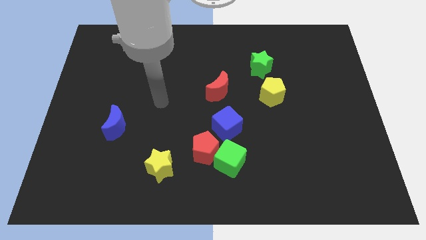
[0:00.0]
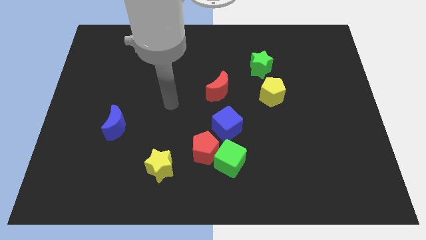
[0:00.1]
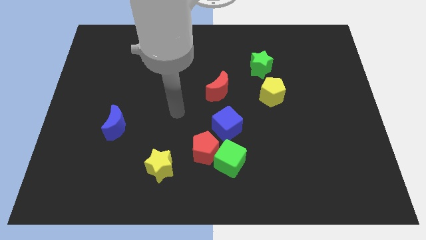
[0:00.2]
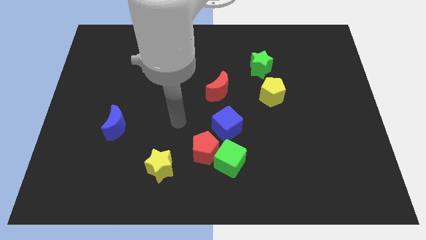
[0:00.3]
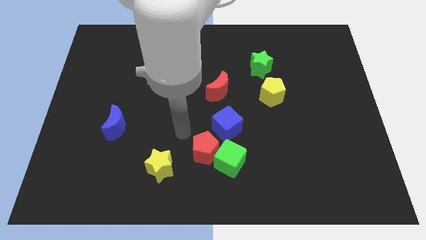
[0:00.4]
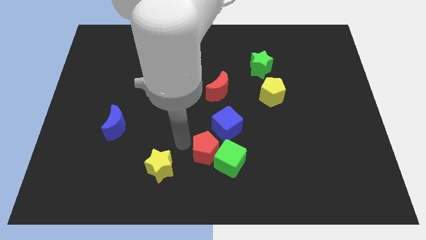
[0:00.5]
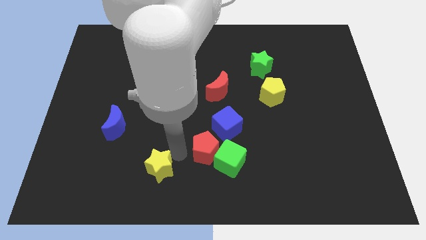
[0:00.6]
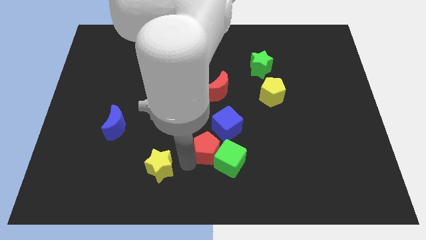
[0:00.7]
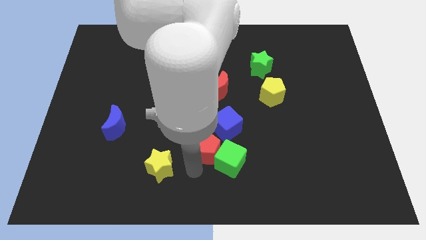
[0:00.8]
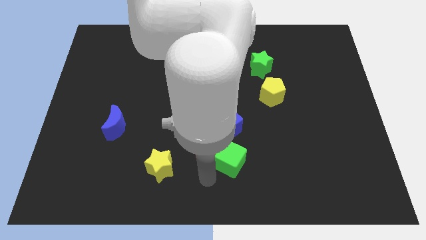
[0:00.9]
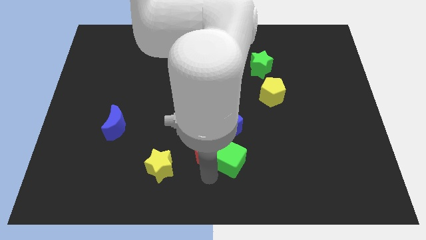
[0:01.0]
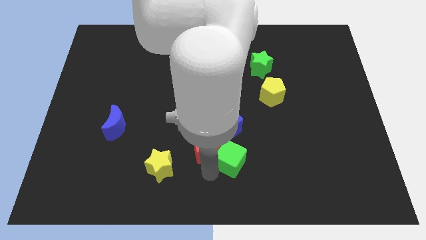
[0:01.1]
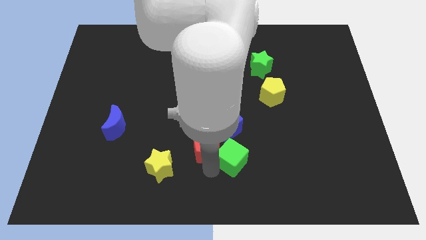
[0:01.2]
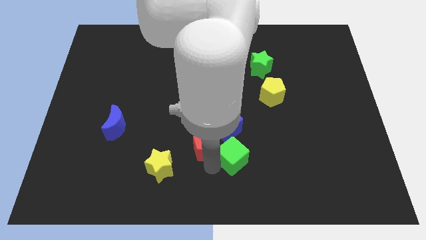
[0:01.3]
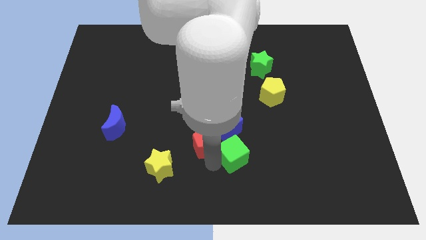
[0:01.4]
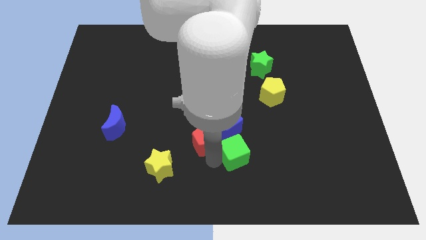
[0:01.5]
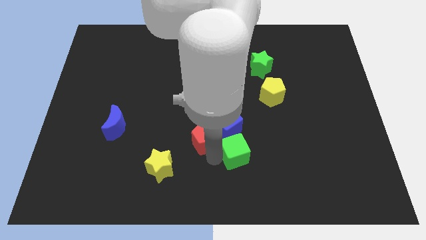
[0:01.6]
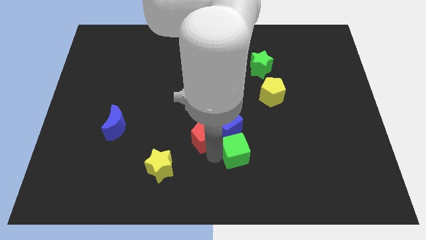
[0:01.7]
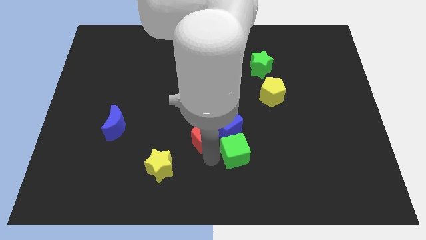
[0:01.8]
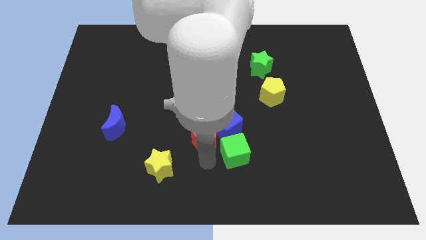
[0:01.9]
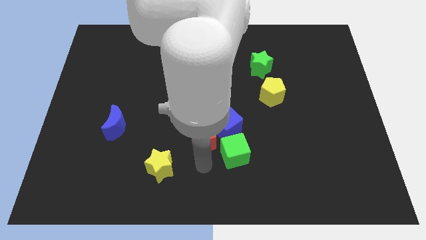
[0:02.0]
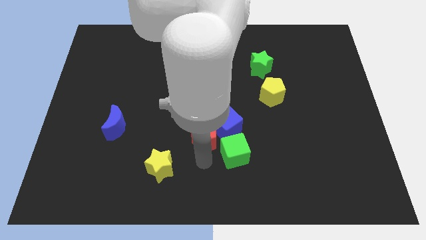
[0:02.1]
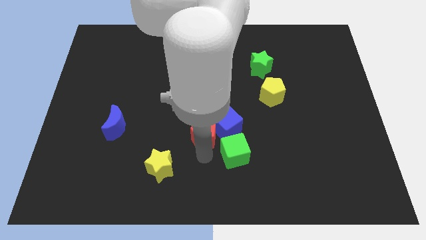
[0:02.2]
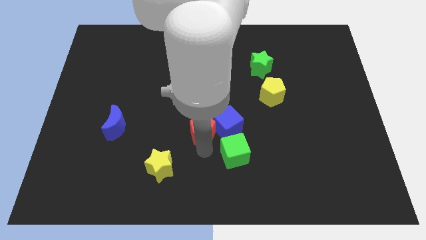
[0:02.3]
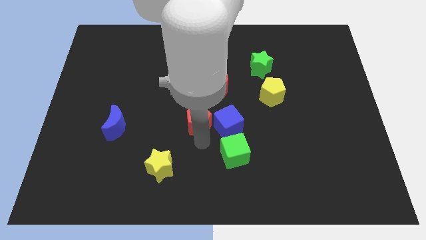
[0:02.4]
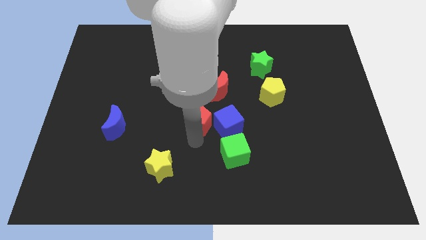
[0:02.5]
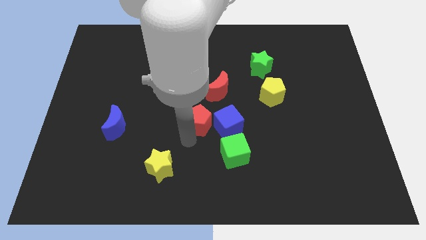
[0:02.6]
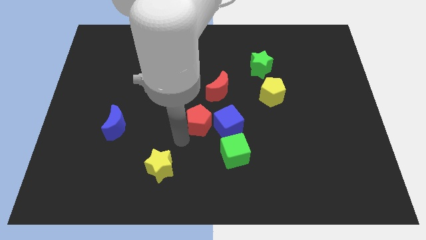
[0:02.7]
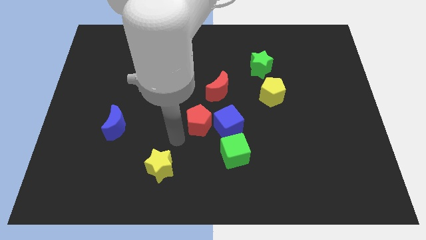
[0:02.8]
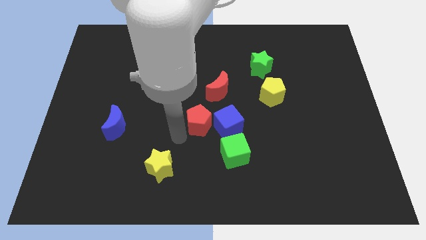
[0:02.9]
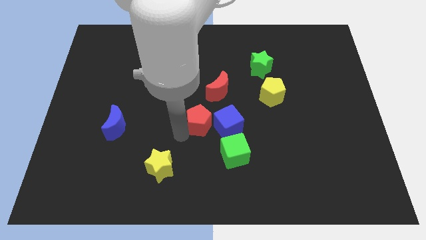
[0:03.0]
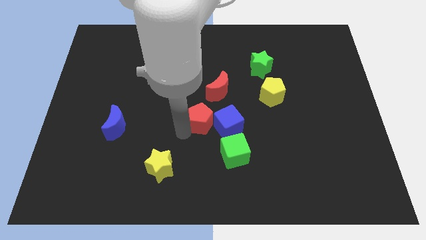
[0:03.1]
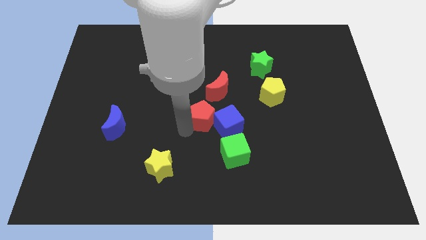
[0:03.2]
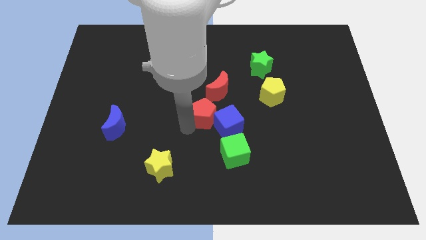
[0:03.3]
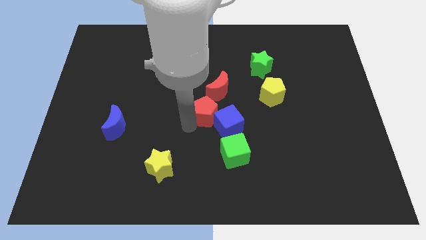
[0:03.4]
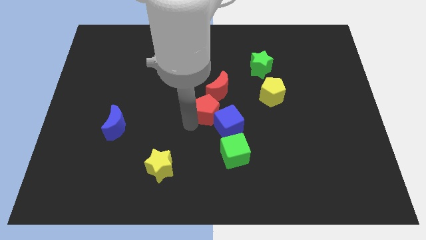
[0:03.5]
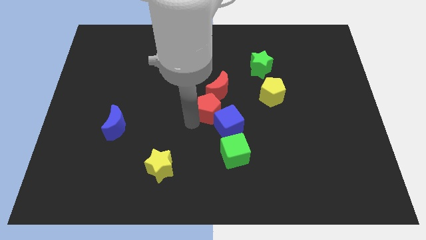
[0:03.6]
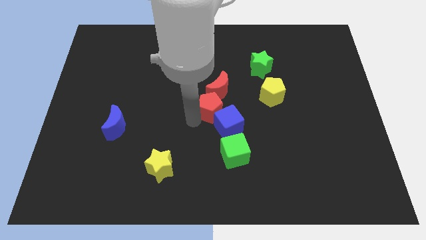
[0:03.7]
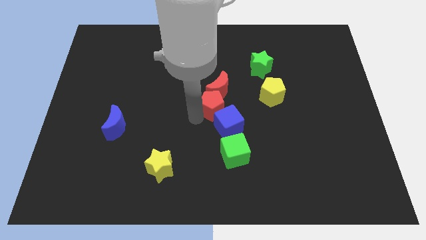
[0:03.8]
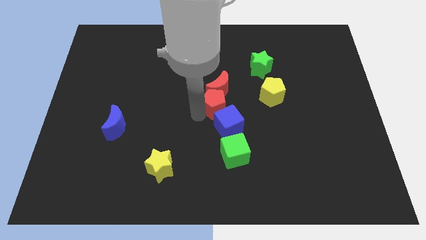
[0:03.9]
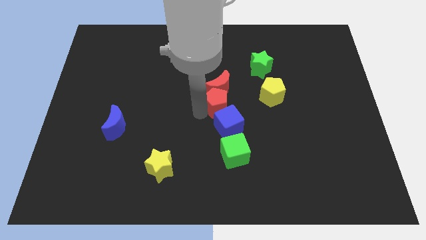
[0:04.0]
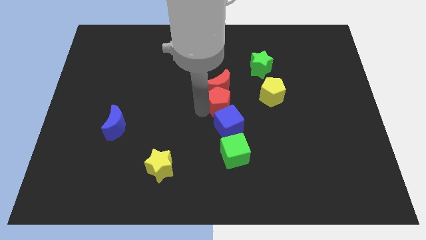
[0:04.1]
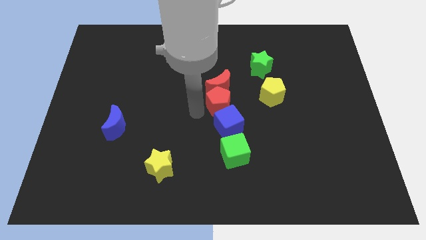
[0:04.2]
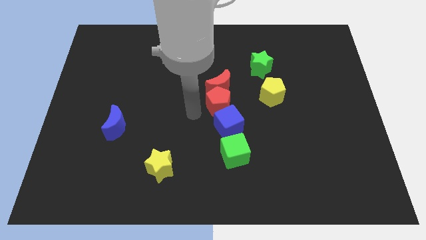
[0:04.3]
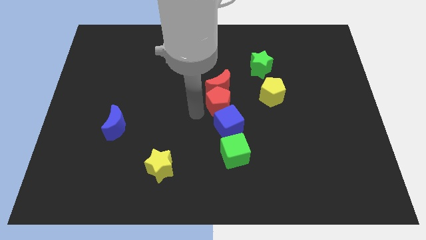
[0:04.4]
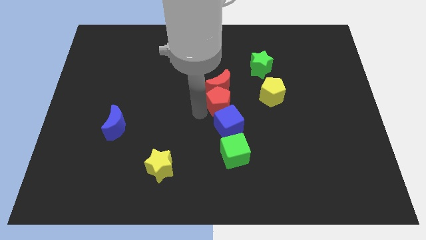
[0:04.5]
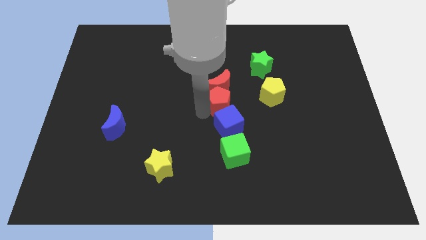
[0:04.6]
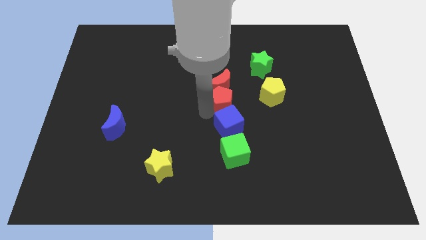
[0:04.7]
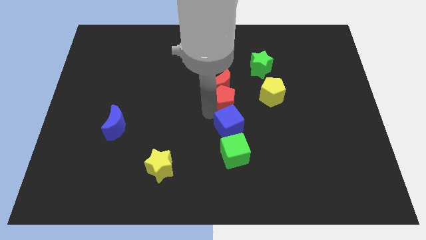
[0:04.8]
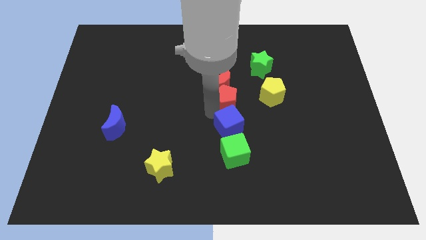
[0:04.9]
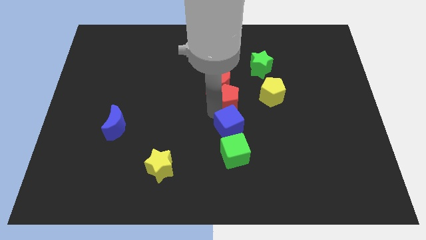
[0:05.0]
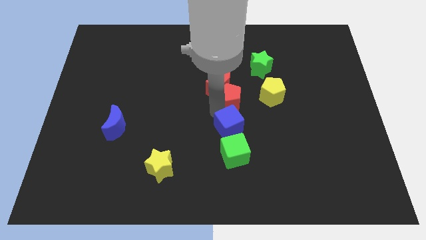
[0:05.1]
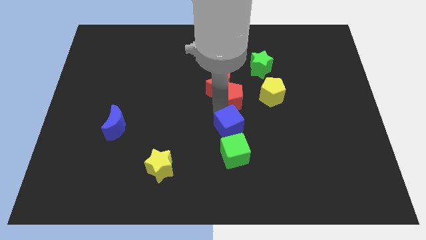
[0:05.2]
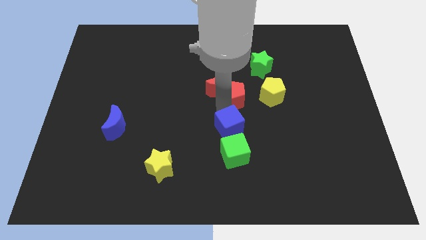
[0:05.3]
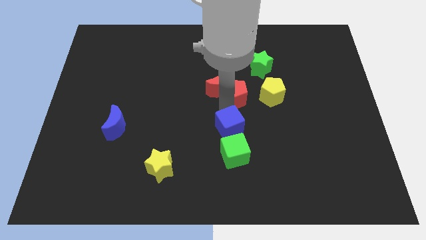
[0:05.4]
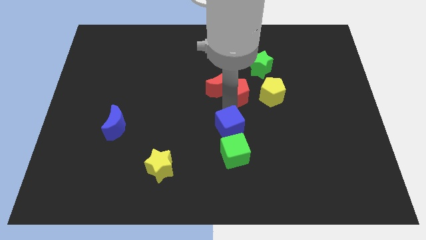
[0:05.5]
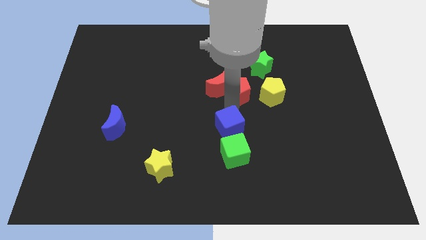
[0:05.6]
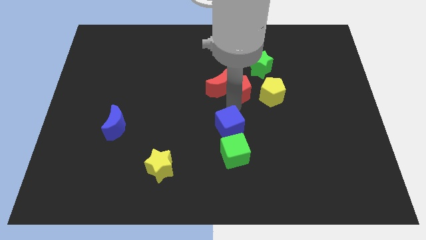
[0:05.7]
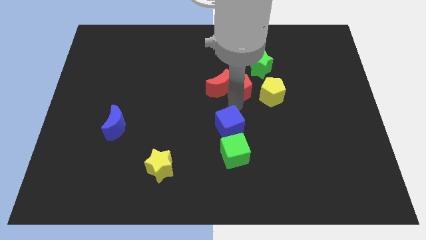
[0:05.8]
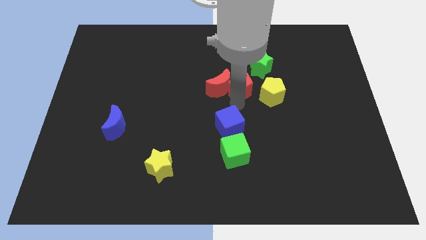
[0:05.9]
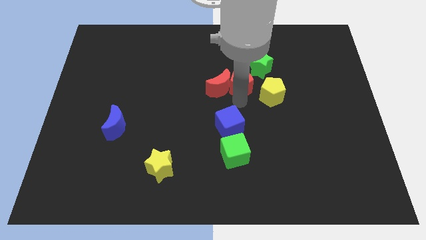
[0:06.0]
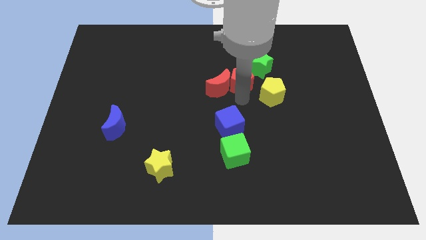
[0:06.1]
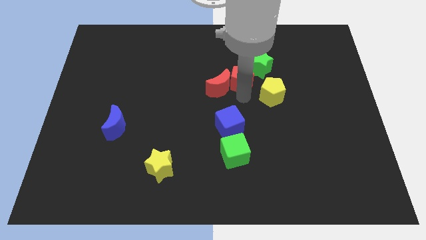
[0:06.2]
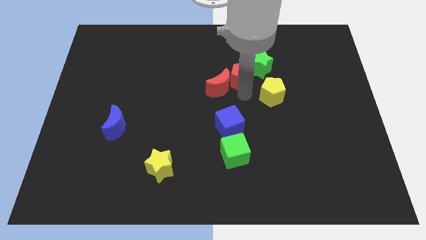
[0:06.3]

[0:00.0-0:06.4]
move the red pentagon close to the green star

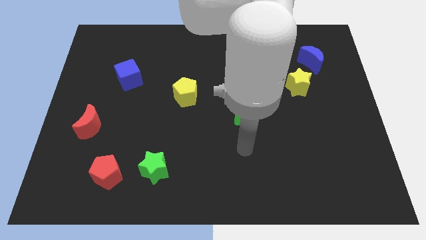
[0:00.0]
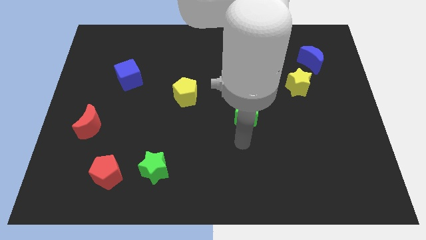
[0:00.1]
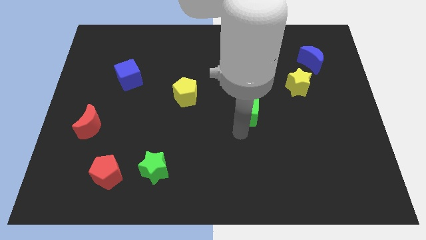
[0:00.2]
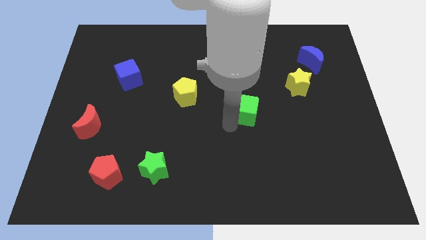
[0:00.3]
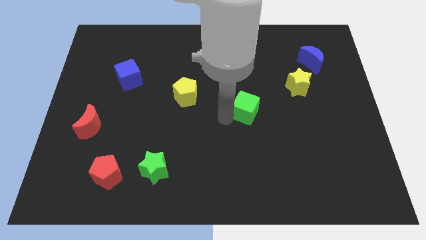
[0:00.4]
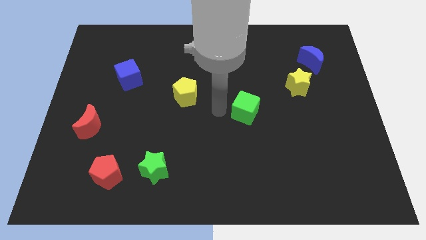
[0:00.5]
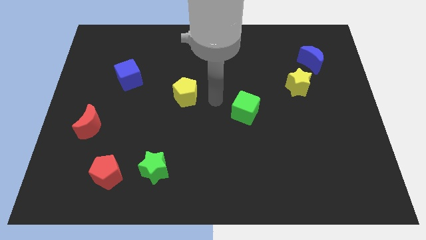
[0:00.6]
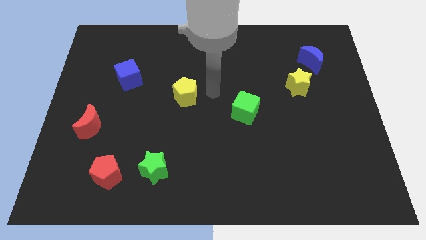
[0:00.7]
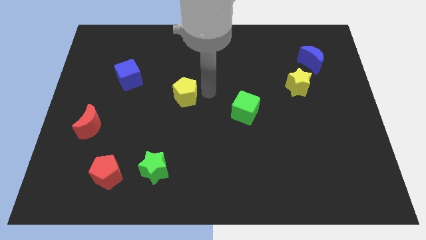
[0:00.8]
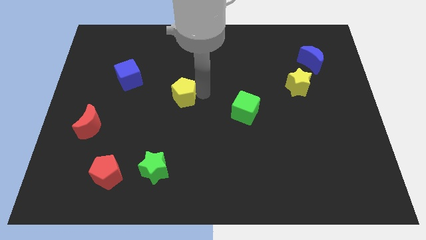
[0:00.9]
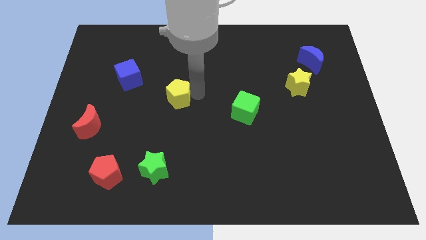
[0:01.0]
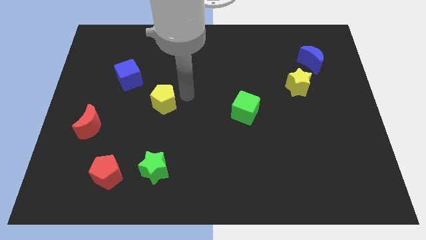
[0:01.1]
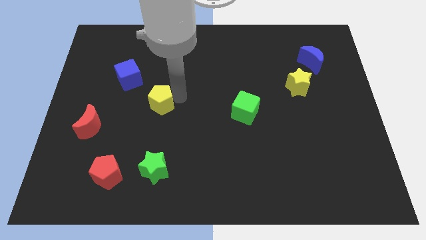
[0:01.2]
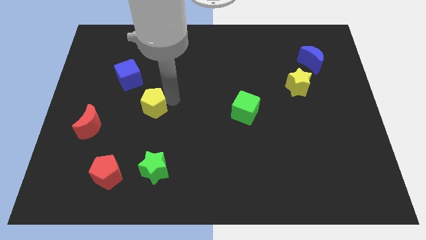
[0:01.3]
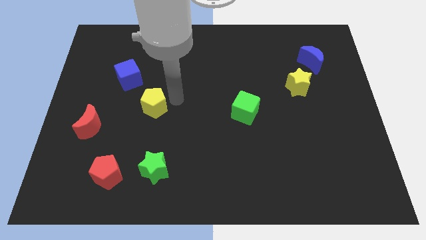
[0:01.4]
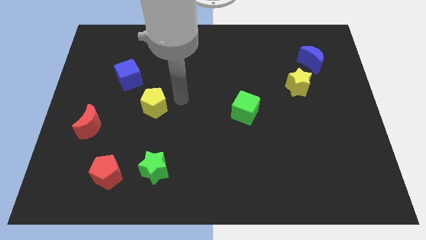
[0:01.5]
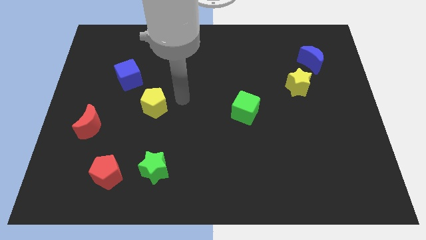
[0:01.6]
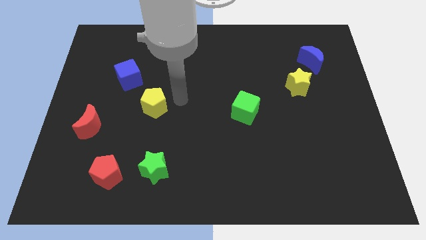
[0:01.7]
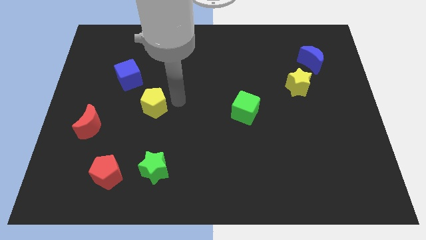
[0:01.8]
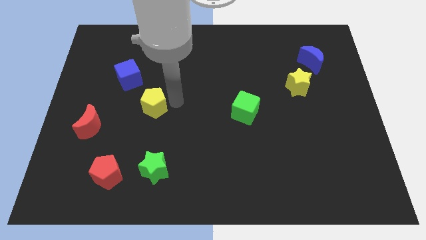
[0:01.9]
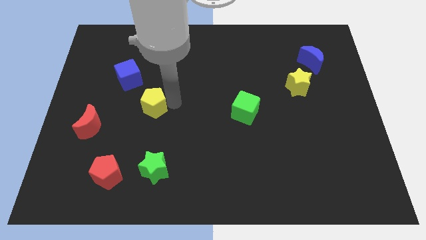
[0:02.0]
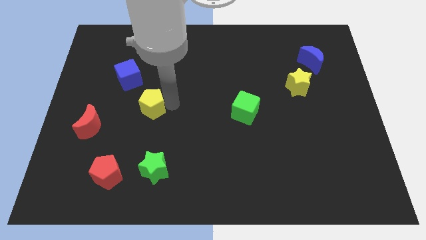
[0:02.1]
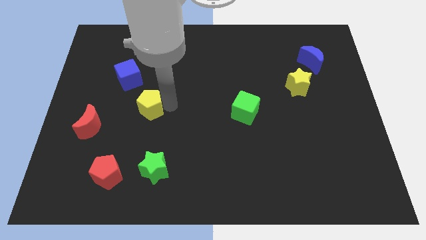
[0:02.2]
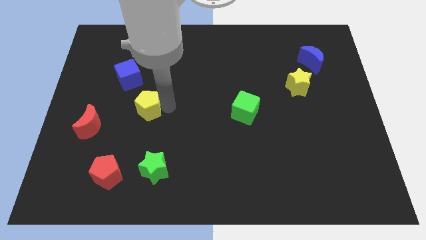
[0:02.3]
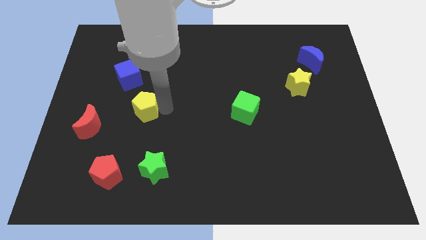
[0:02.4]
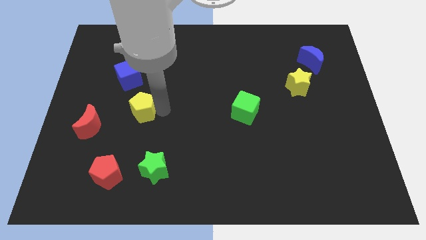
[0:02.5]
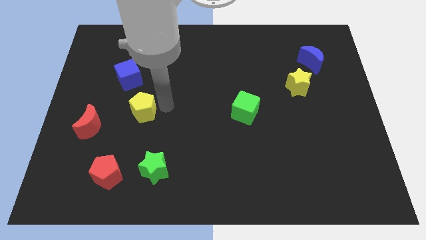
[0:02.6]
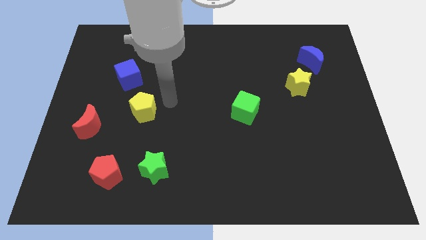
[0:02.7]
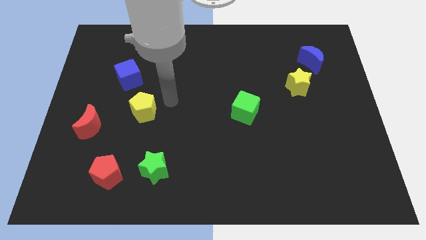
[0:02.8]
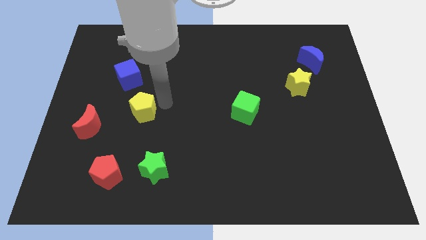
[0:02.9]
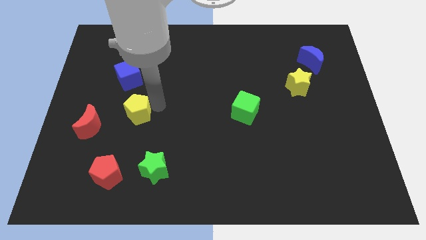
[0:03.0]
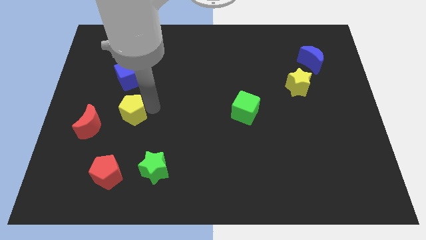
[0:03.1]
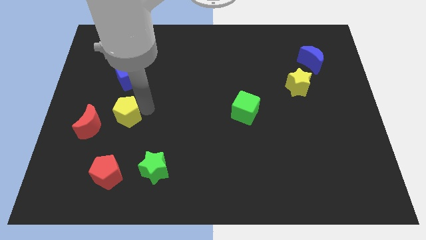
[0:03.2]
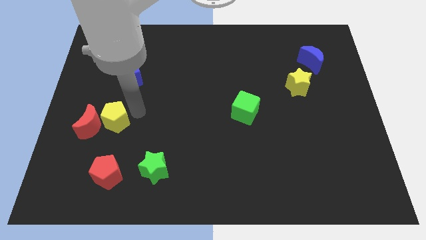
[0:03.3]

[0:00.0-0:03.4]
slide the yellow pentagon towards the red moon
